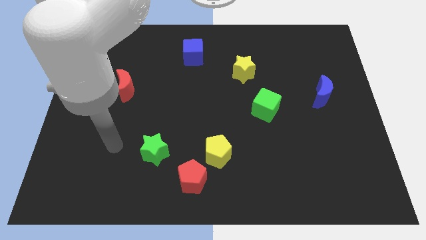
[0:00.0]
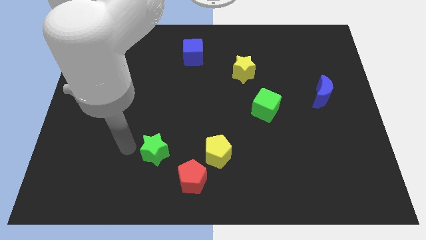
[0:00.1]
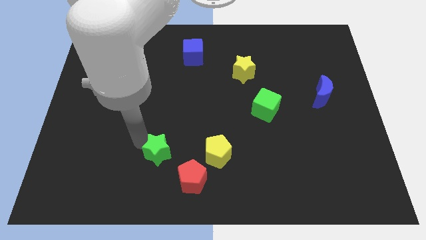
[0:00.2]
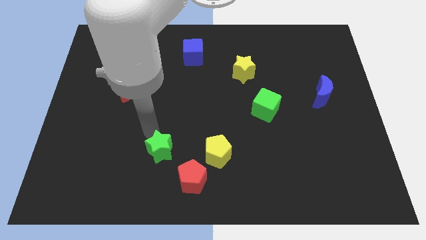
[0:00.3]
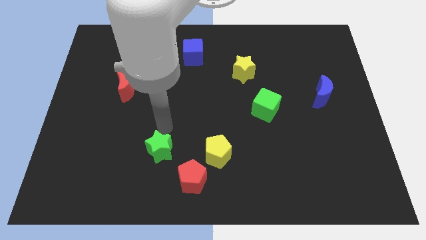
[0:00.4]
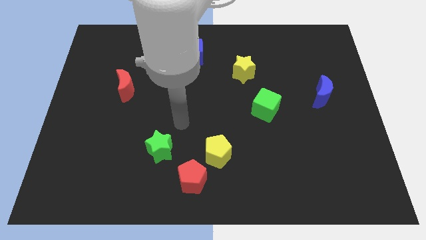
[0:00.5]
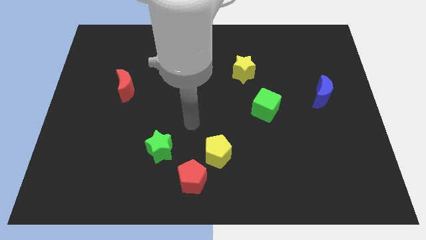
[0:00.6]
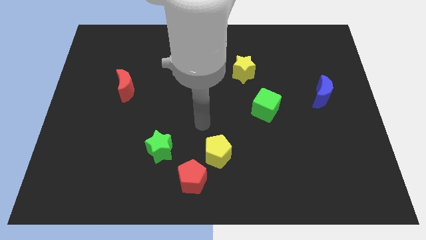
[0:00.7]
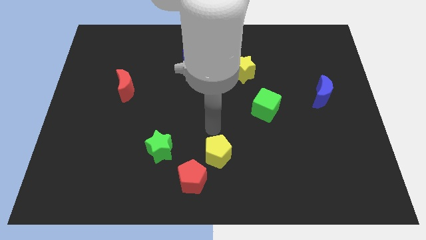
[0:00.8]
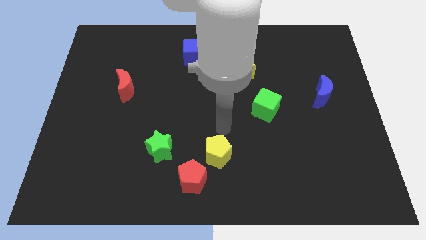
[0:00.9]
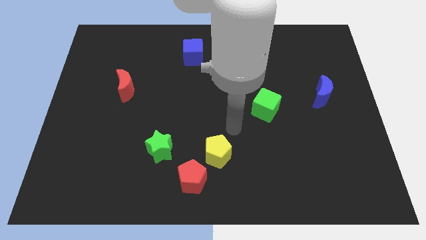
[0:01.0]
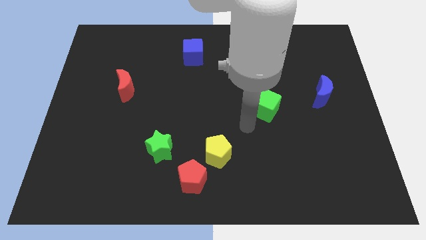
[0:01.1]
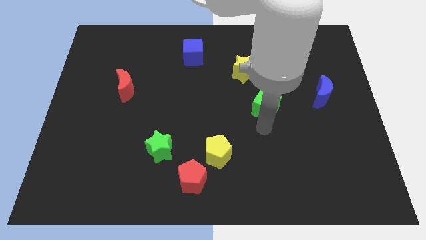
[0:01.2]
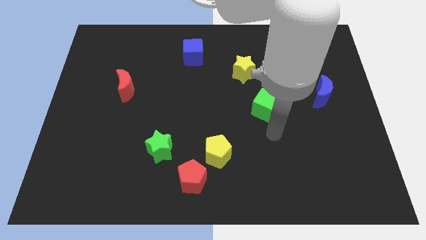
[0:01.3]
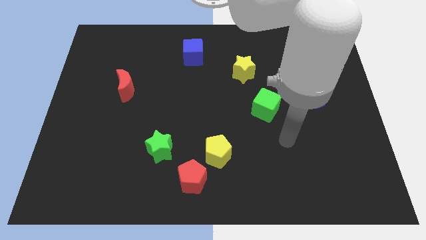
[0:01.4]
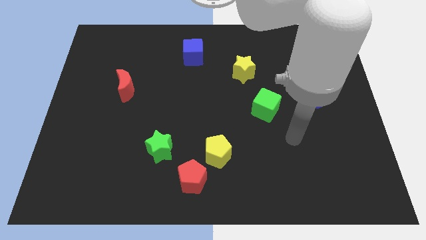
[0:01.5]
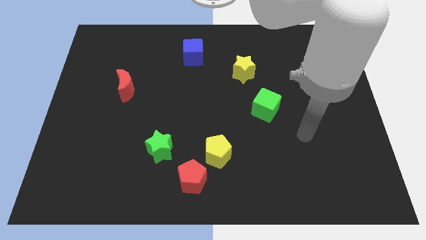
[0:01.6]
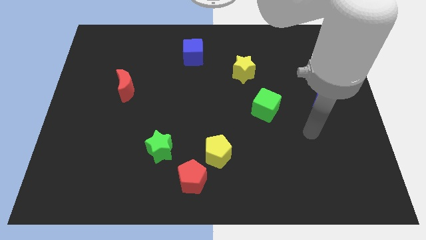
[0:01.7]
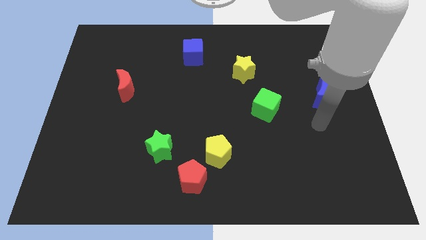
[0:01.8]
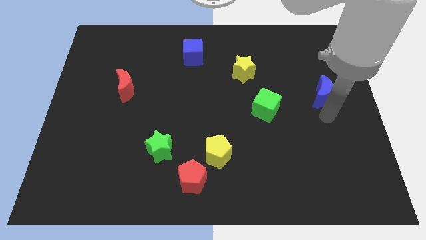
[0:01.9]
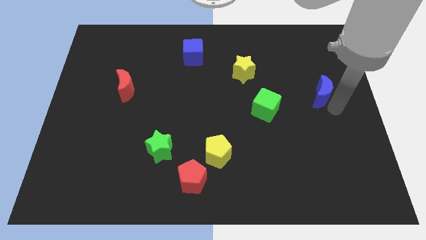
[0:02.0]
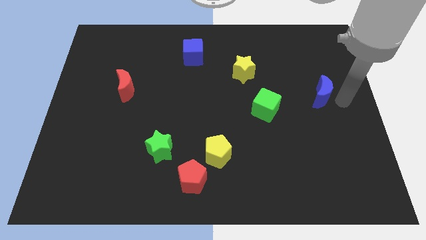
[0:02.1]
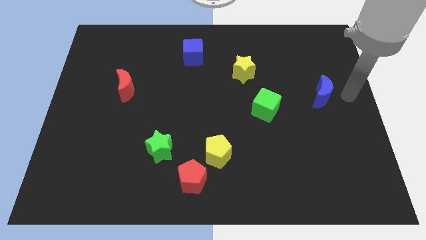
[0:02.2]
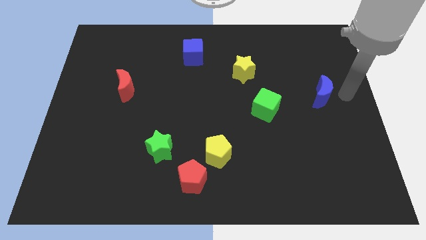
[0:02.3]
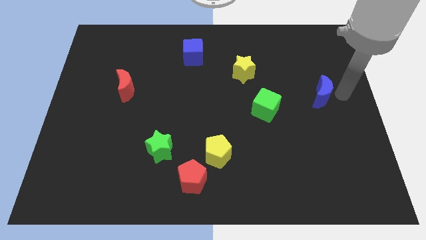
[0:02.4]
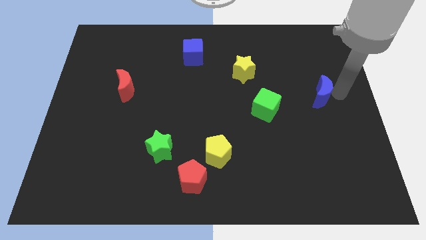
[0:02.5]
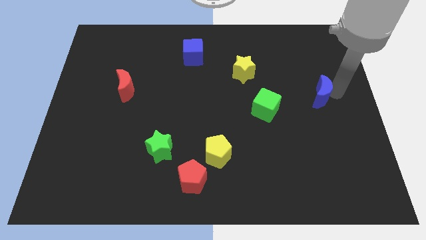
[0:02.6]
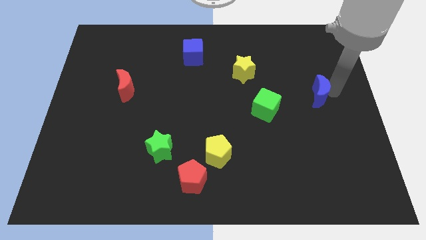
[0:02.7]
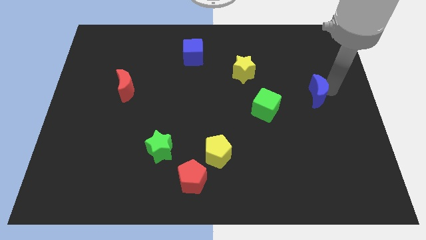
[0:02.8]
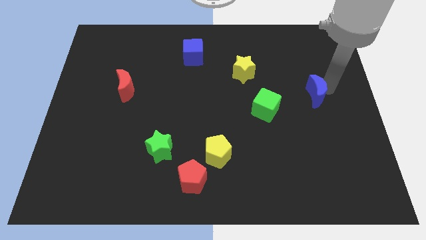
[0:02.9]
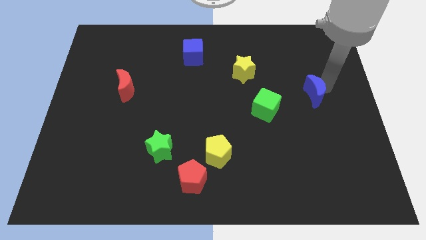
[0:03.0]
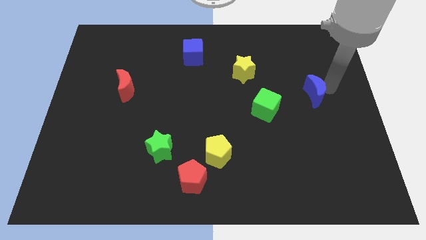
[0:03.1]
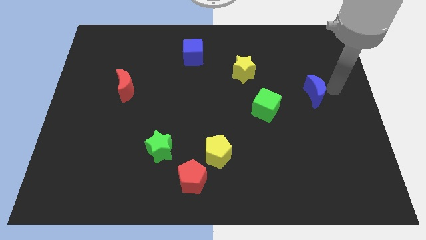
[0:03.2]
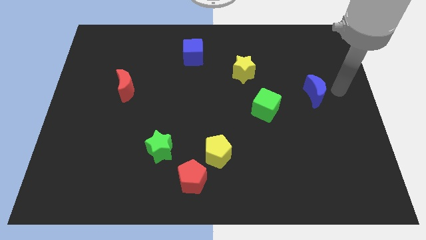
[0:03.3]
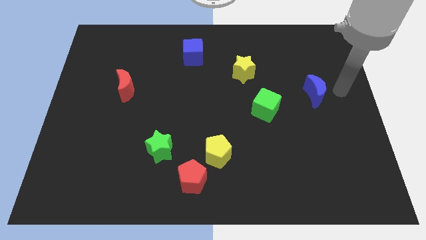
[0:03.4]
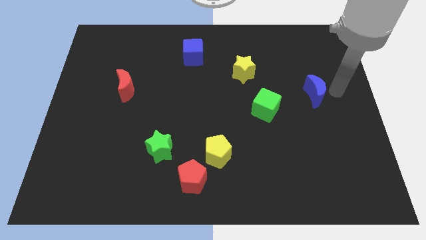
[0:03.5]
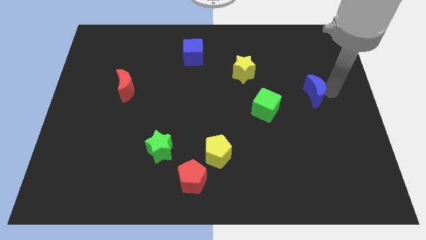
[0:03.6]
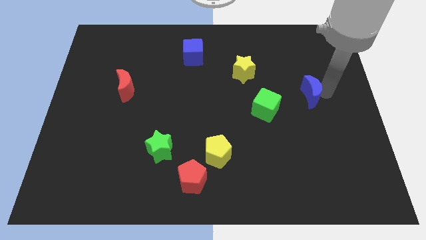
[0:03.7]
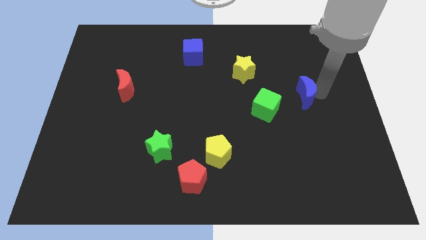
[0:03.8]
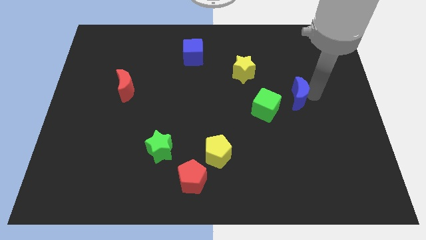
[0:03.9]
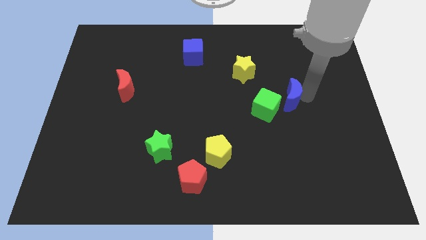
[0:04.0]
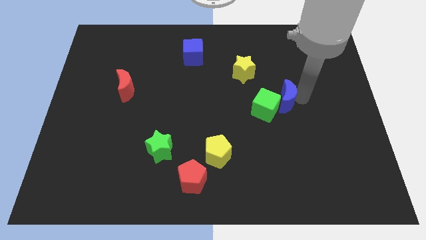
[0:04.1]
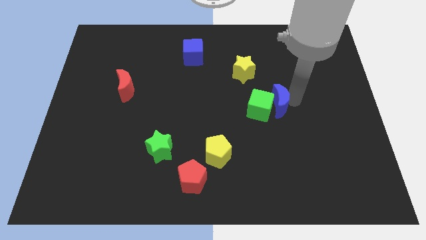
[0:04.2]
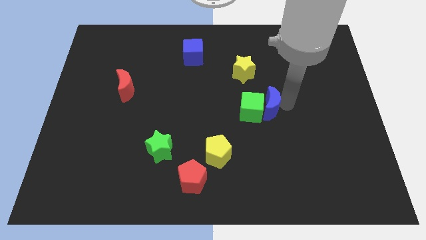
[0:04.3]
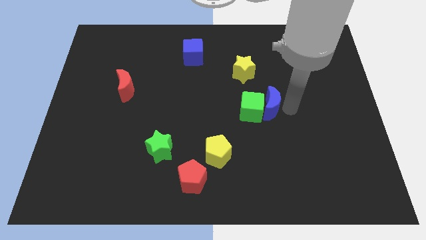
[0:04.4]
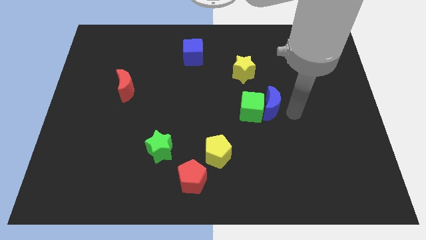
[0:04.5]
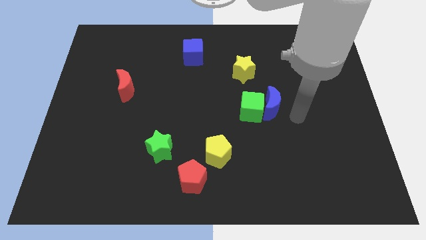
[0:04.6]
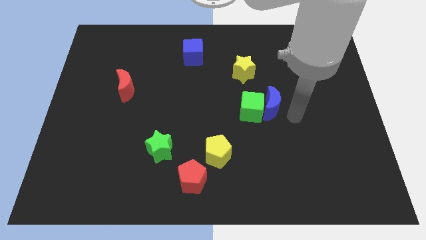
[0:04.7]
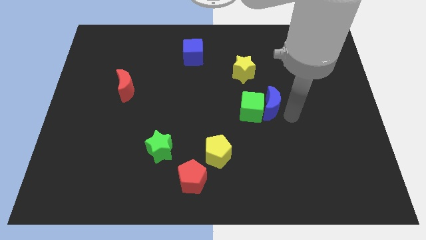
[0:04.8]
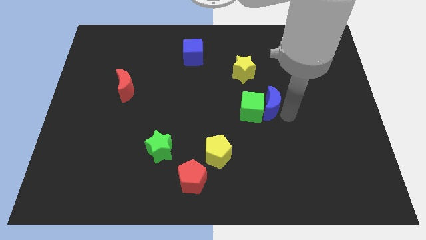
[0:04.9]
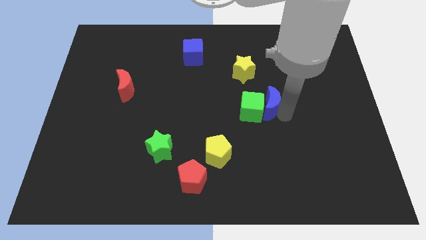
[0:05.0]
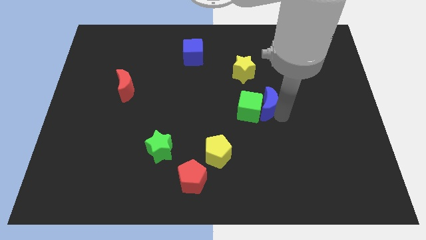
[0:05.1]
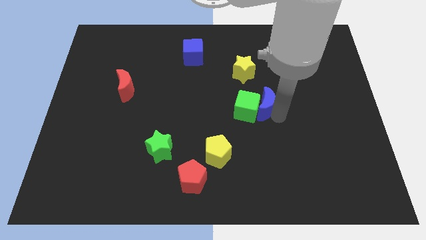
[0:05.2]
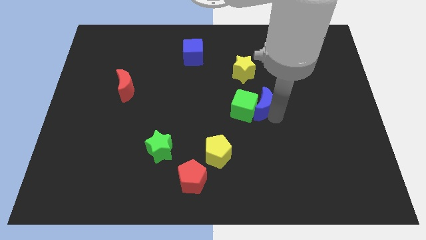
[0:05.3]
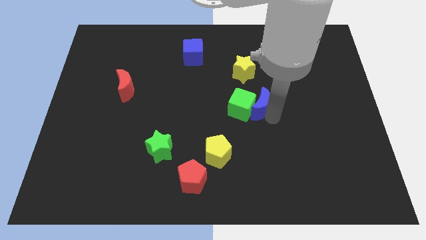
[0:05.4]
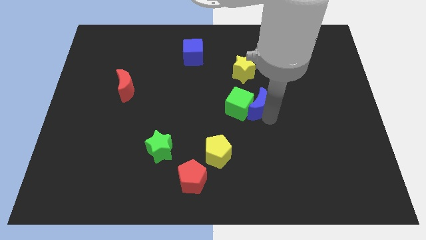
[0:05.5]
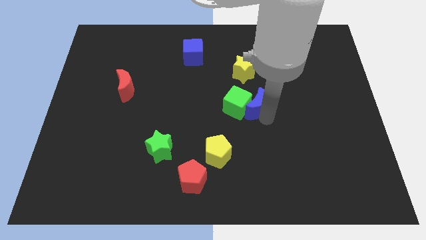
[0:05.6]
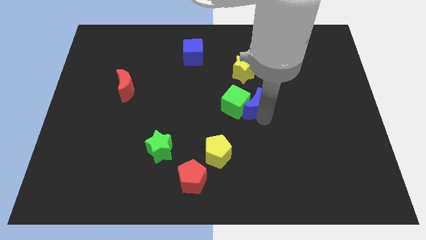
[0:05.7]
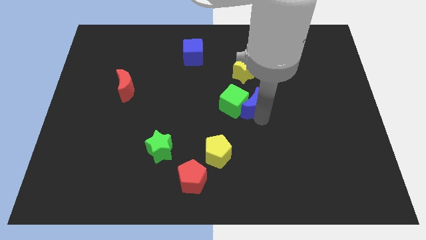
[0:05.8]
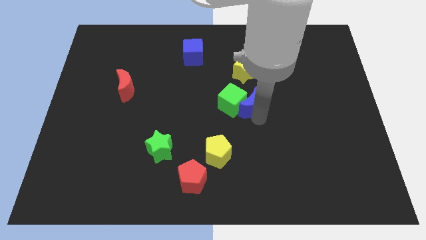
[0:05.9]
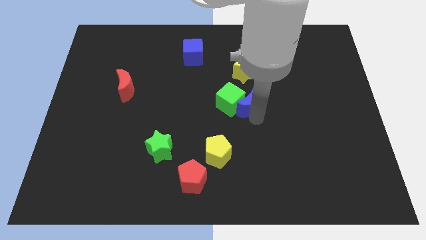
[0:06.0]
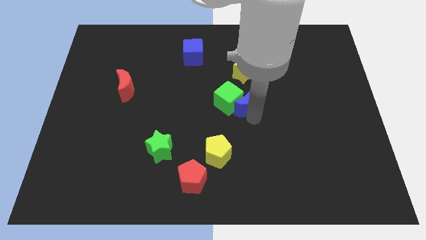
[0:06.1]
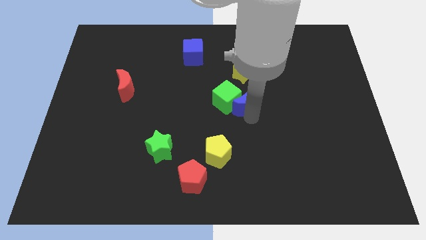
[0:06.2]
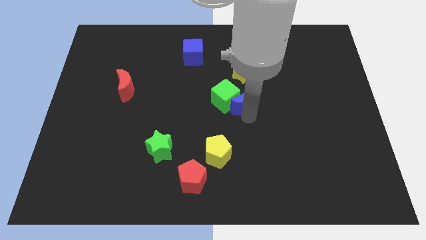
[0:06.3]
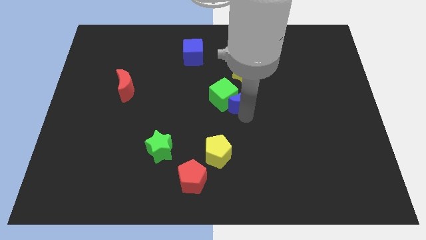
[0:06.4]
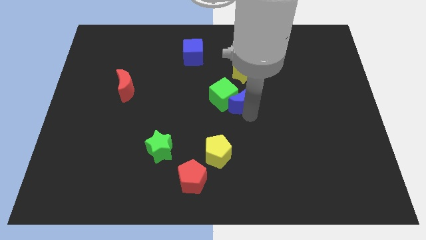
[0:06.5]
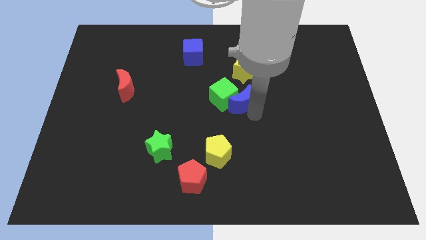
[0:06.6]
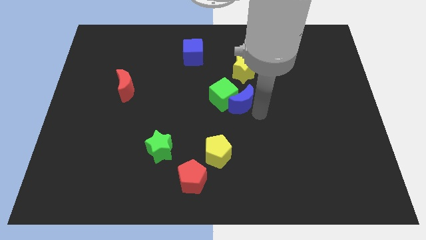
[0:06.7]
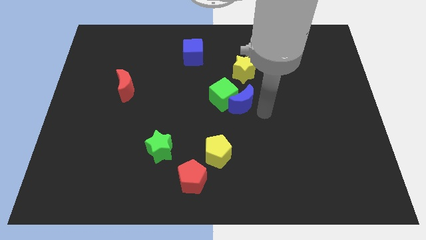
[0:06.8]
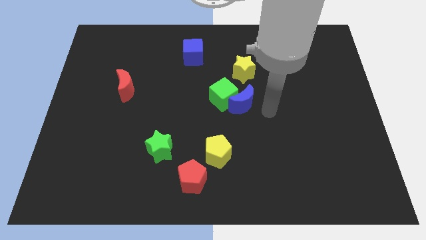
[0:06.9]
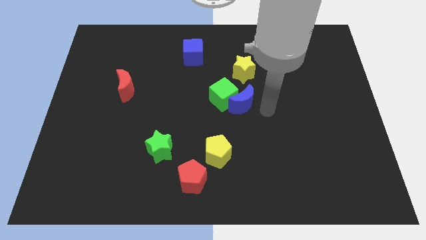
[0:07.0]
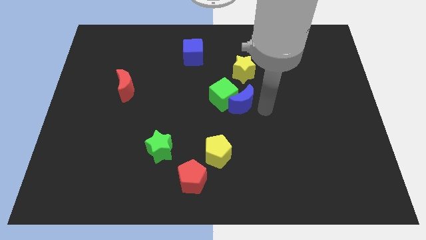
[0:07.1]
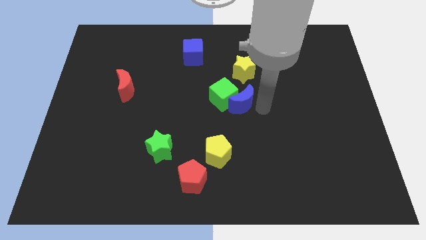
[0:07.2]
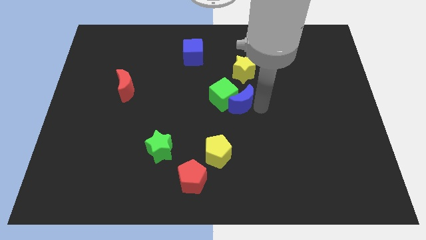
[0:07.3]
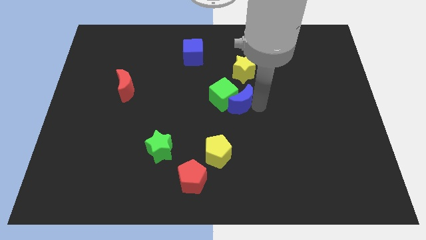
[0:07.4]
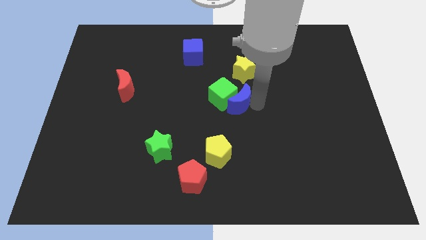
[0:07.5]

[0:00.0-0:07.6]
move the blue moon left

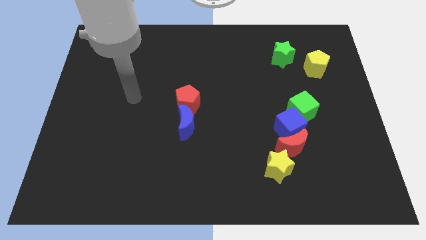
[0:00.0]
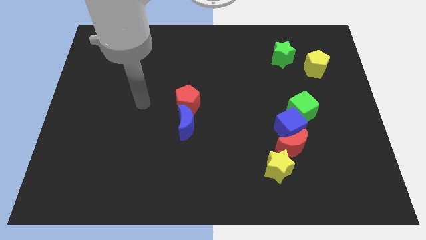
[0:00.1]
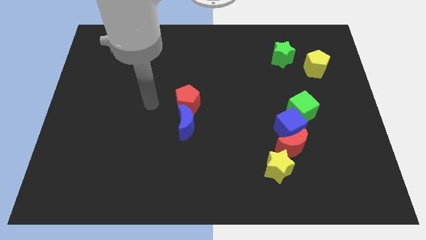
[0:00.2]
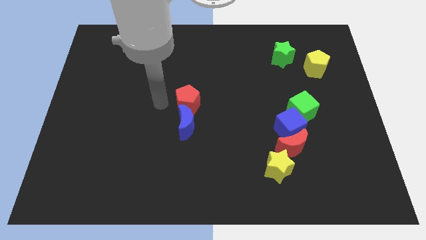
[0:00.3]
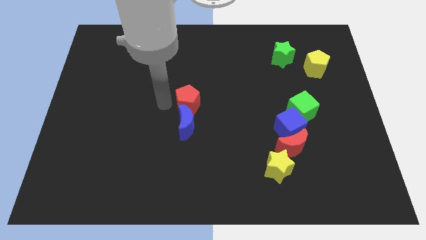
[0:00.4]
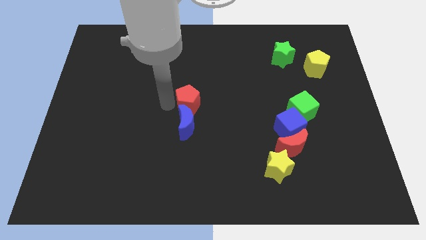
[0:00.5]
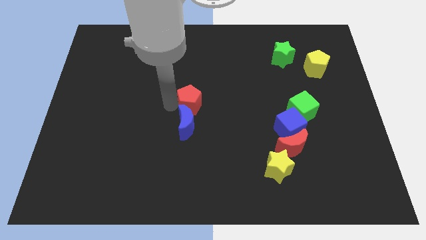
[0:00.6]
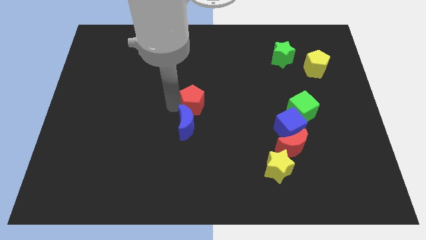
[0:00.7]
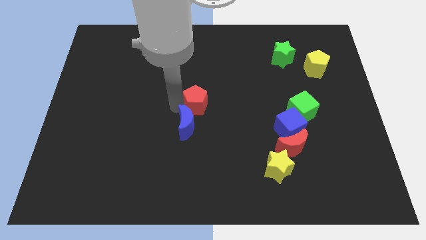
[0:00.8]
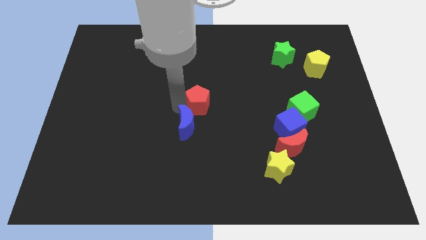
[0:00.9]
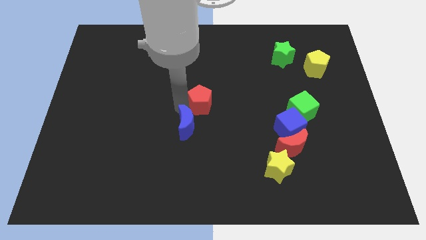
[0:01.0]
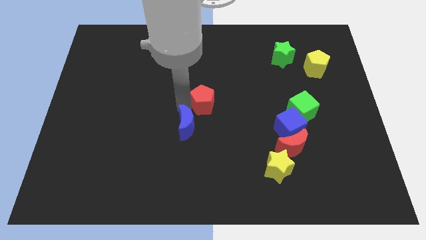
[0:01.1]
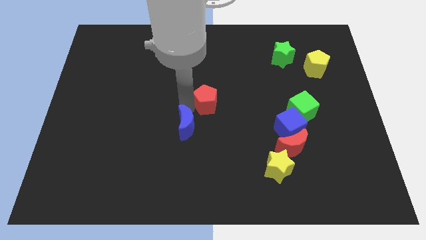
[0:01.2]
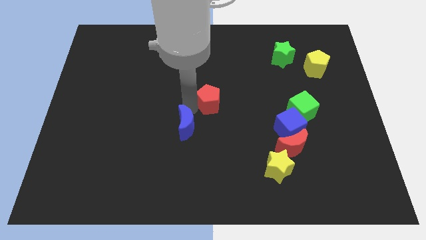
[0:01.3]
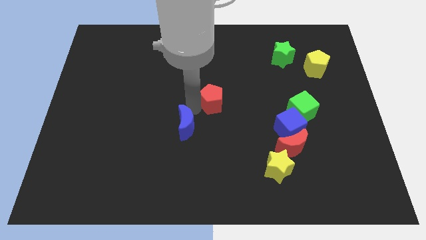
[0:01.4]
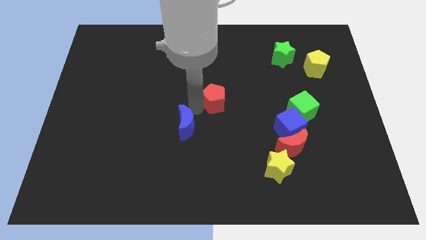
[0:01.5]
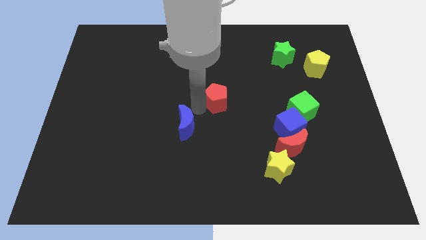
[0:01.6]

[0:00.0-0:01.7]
slightly slide the red pentagon right
